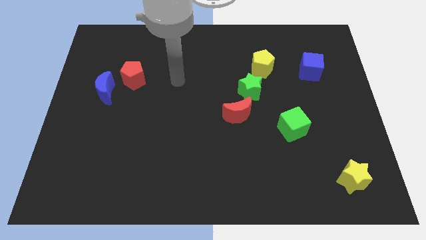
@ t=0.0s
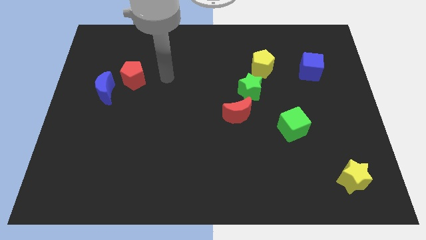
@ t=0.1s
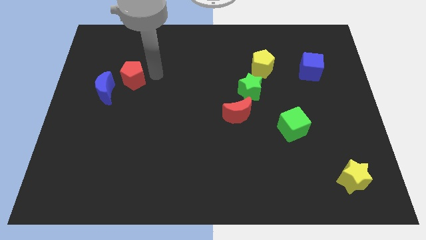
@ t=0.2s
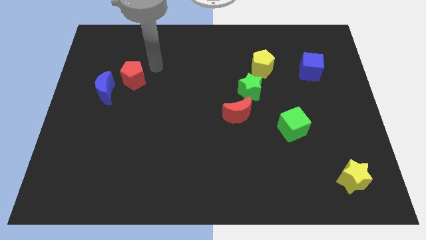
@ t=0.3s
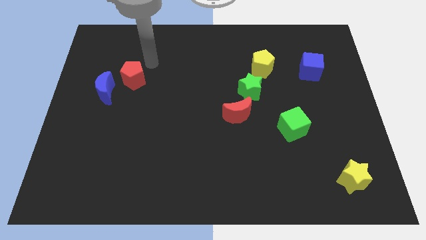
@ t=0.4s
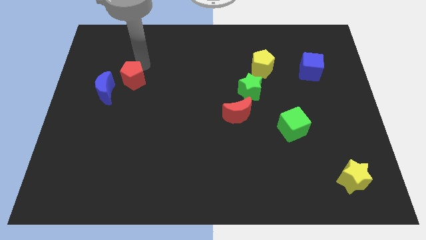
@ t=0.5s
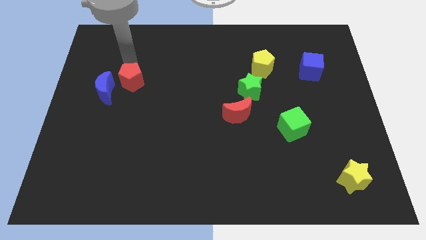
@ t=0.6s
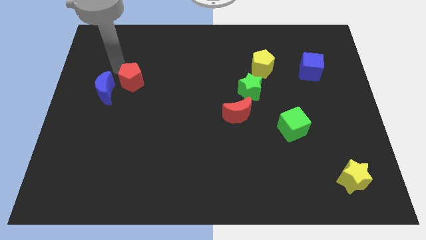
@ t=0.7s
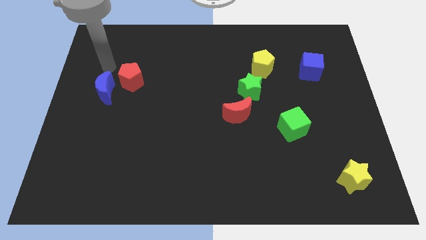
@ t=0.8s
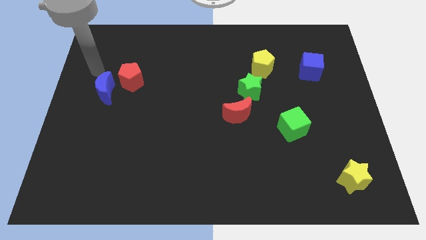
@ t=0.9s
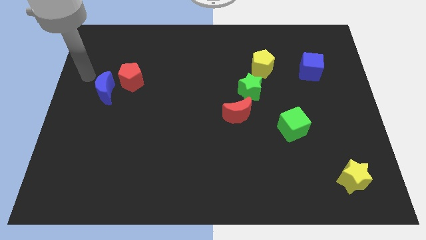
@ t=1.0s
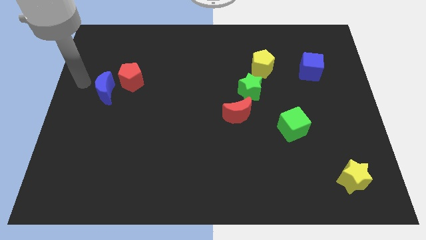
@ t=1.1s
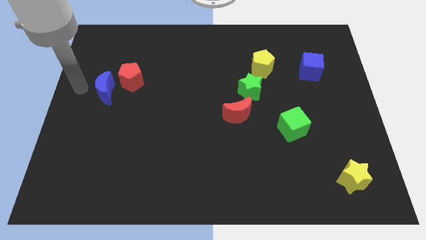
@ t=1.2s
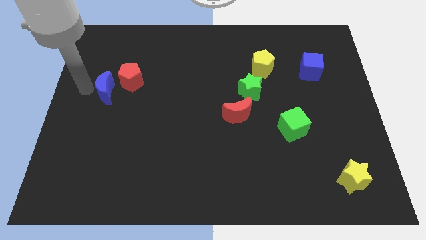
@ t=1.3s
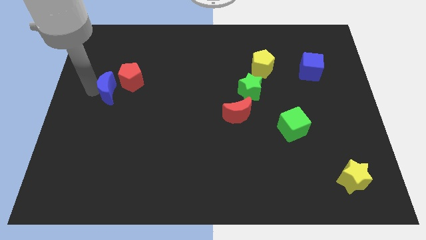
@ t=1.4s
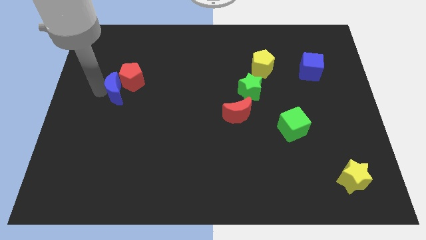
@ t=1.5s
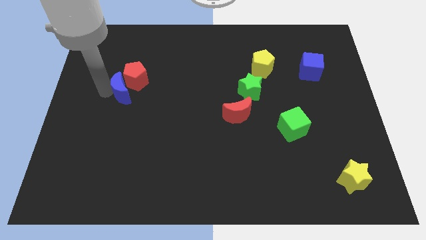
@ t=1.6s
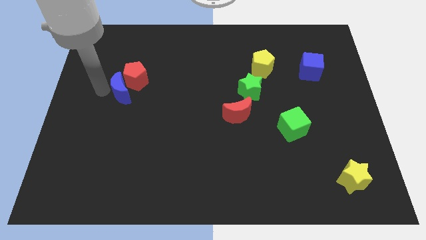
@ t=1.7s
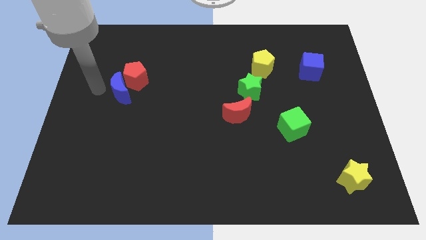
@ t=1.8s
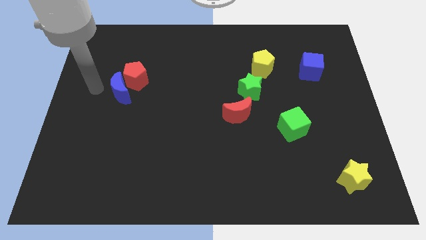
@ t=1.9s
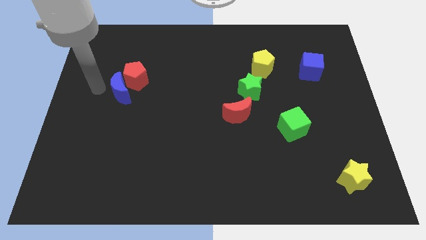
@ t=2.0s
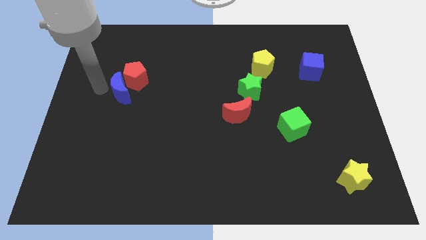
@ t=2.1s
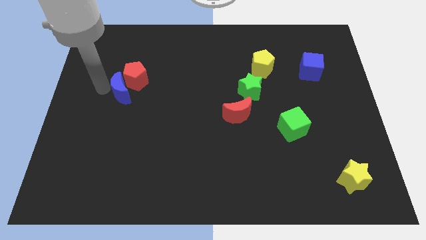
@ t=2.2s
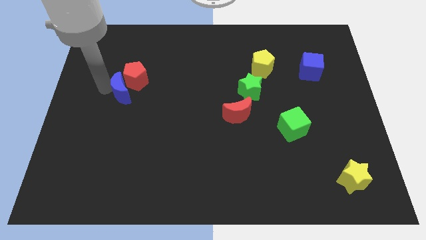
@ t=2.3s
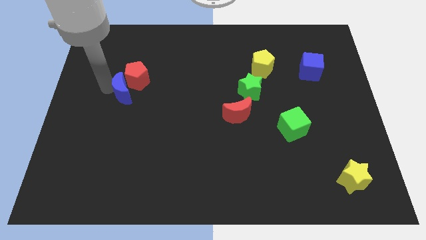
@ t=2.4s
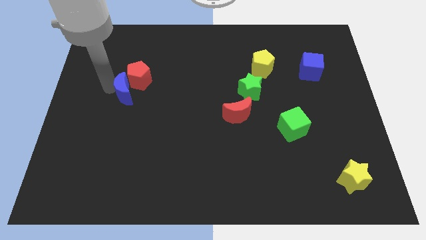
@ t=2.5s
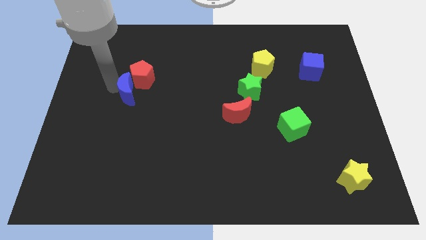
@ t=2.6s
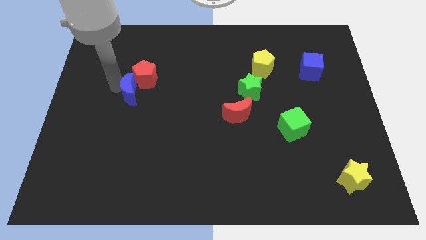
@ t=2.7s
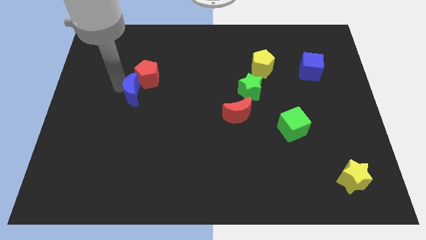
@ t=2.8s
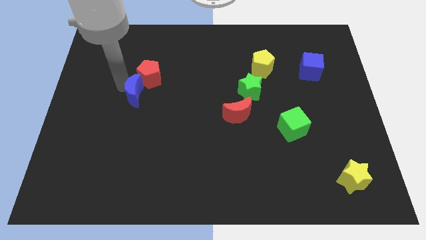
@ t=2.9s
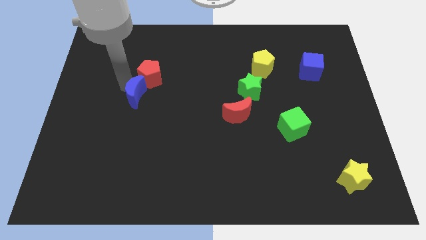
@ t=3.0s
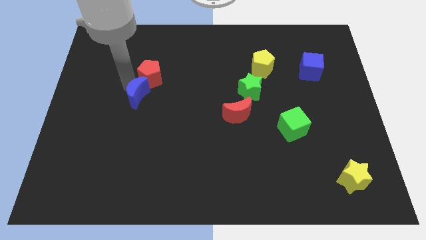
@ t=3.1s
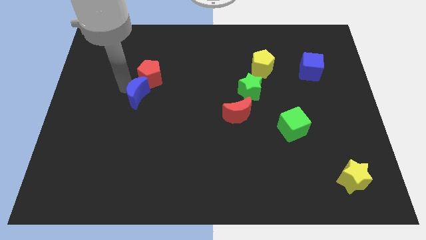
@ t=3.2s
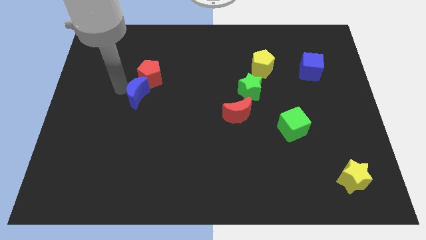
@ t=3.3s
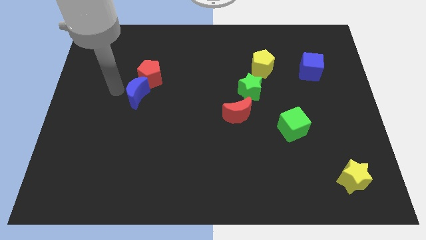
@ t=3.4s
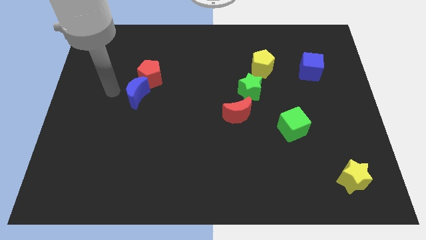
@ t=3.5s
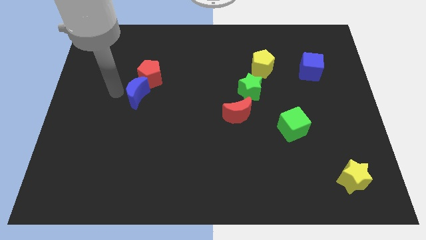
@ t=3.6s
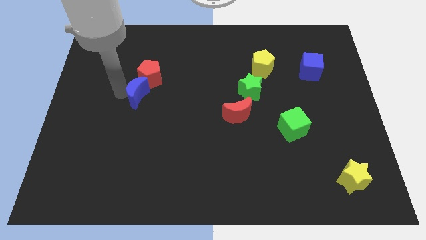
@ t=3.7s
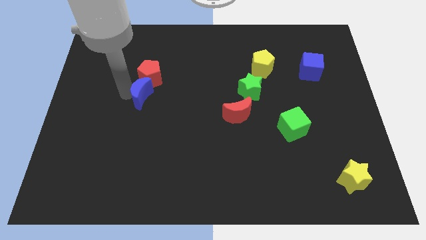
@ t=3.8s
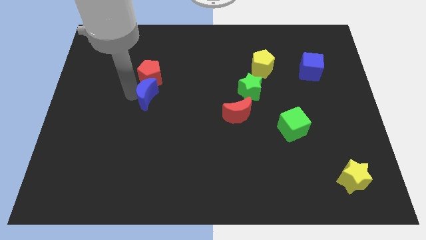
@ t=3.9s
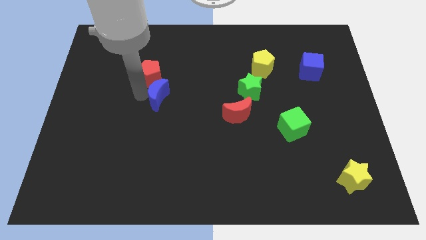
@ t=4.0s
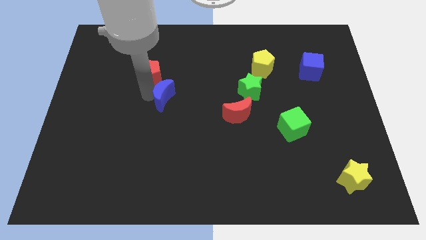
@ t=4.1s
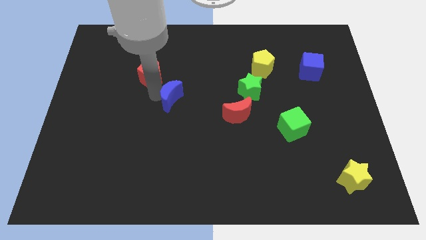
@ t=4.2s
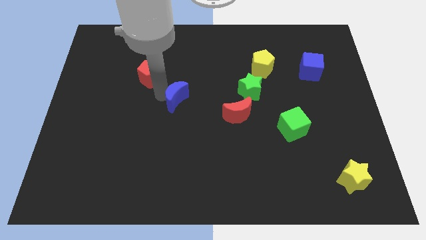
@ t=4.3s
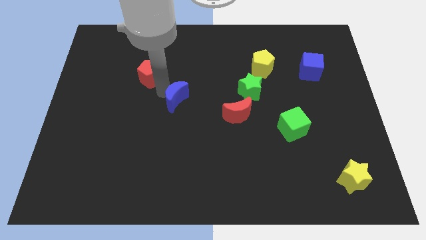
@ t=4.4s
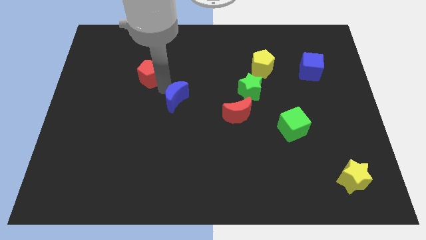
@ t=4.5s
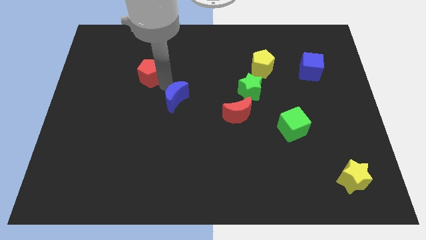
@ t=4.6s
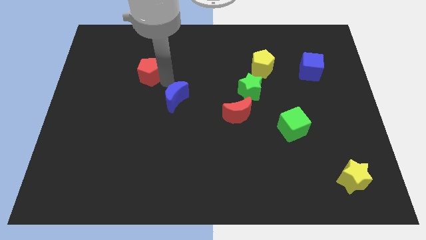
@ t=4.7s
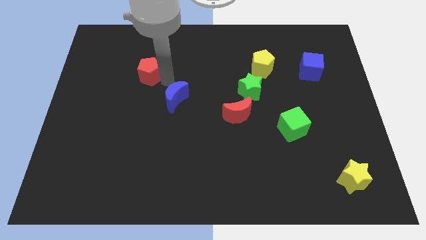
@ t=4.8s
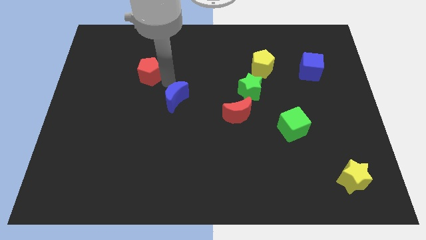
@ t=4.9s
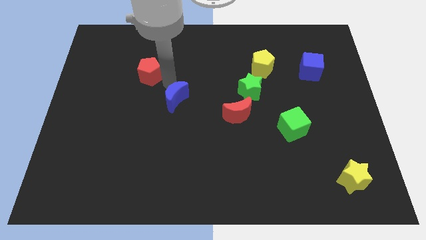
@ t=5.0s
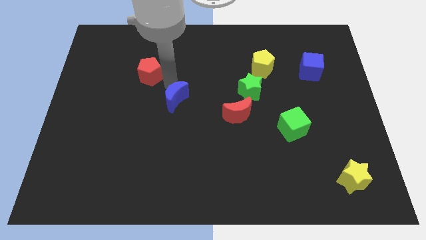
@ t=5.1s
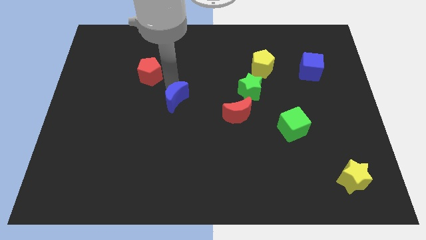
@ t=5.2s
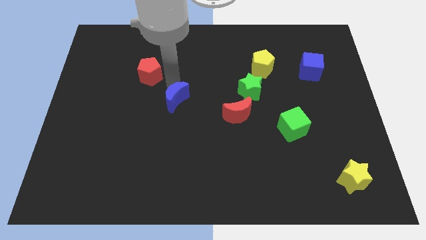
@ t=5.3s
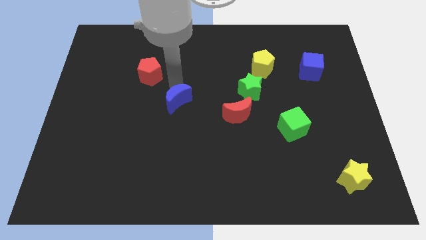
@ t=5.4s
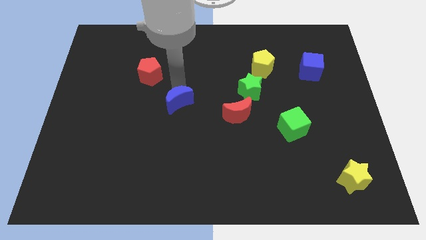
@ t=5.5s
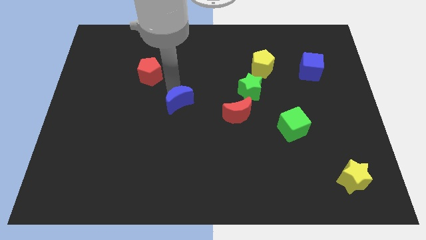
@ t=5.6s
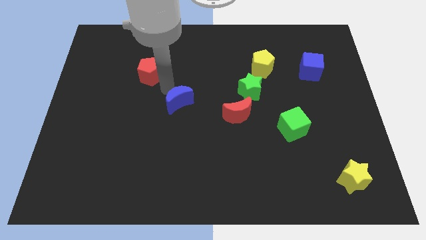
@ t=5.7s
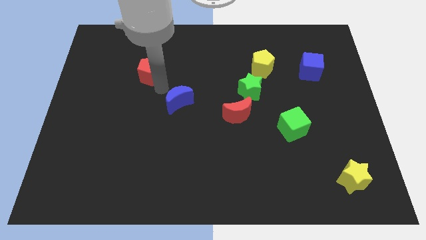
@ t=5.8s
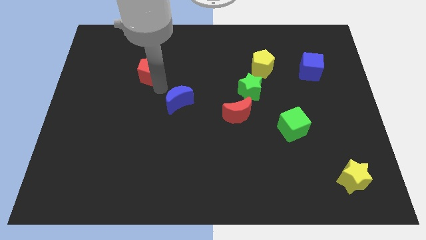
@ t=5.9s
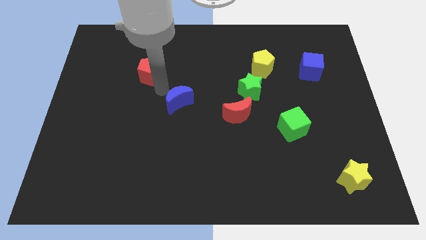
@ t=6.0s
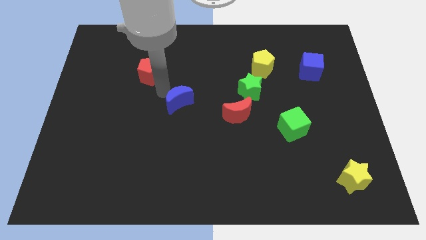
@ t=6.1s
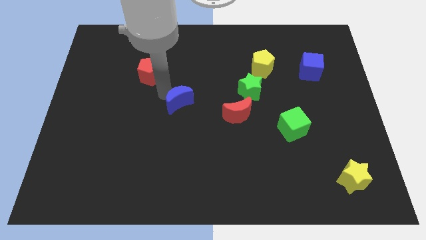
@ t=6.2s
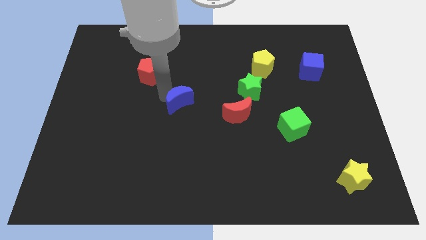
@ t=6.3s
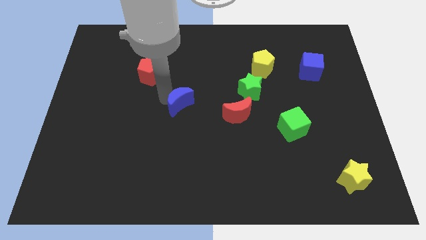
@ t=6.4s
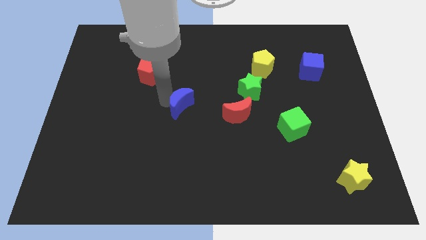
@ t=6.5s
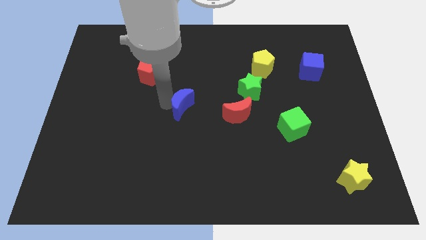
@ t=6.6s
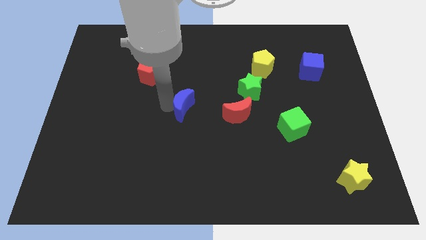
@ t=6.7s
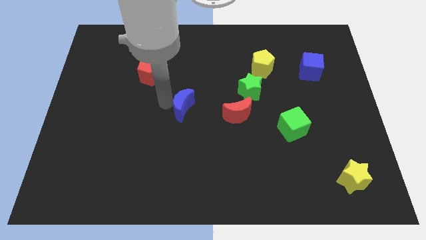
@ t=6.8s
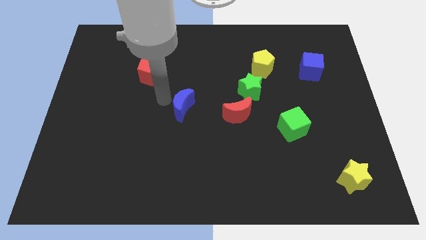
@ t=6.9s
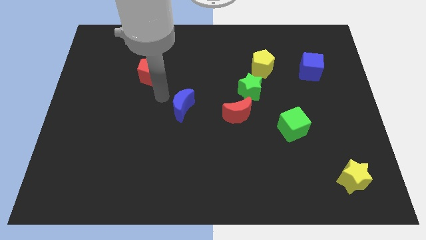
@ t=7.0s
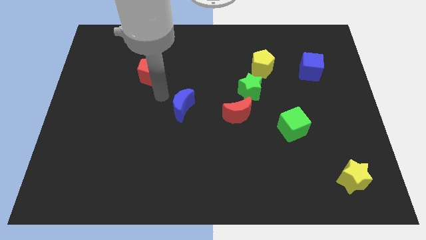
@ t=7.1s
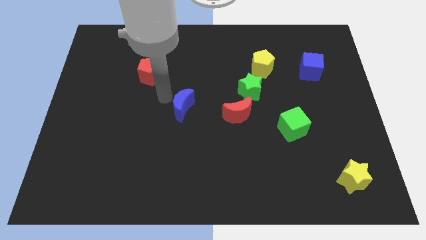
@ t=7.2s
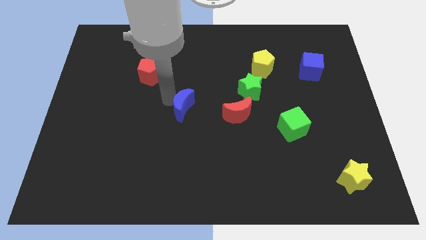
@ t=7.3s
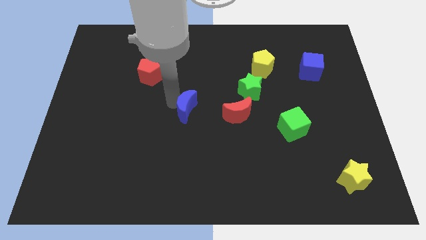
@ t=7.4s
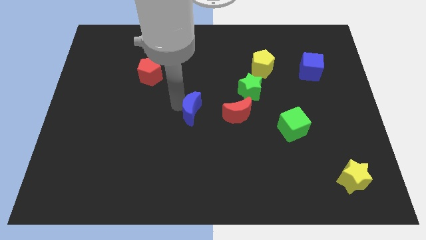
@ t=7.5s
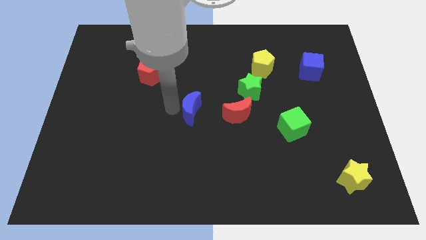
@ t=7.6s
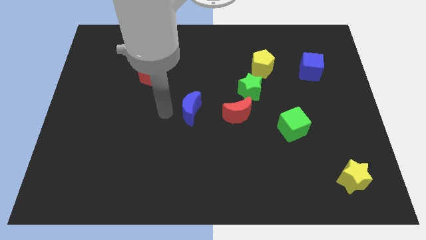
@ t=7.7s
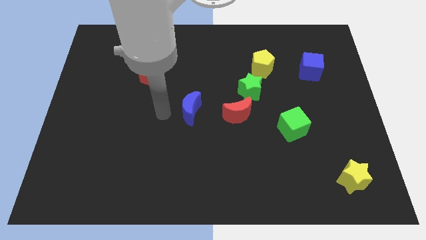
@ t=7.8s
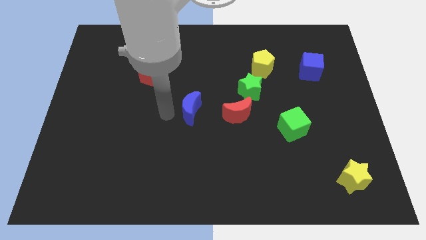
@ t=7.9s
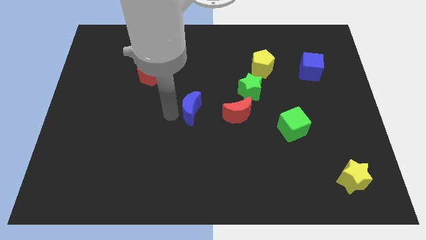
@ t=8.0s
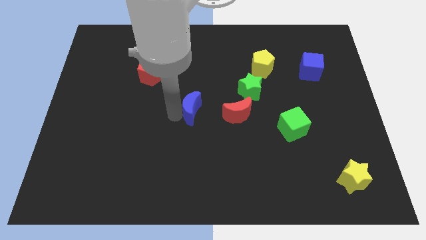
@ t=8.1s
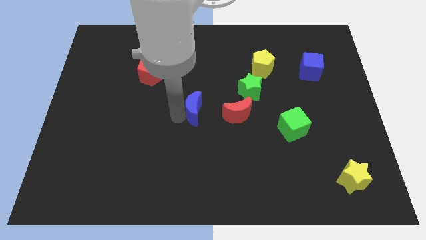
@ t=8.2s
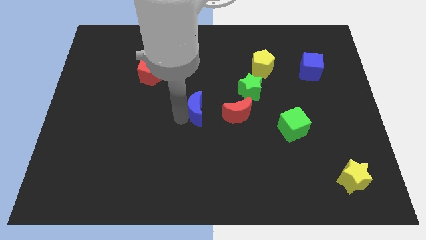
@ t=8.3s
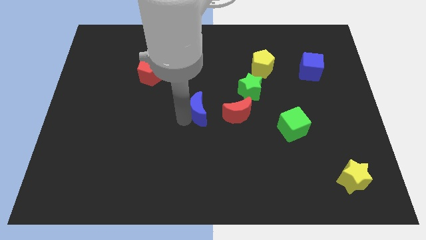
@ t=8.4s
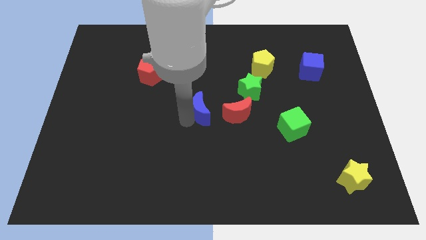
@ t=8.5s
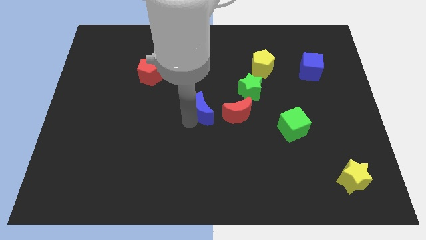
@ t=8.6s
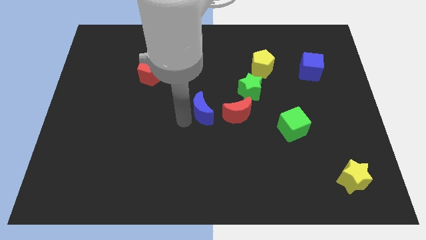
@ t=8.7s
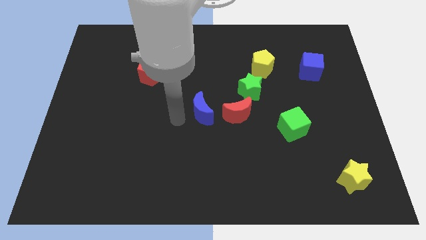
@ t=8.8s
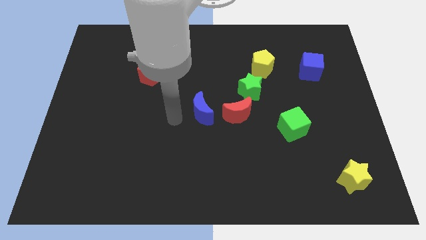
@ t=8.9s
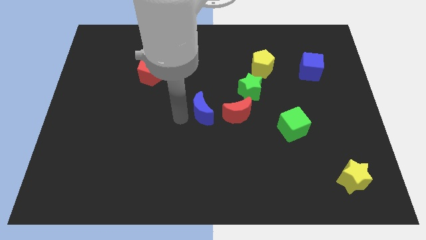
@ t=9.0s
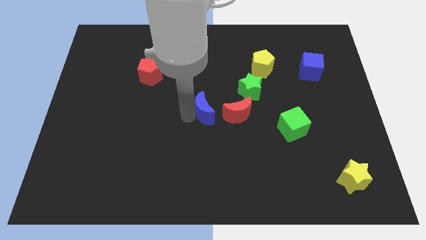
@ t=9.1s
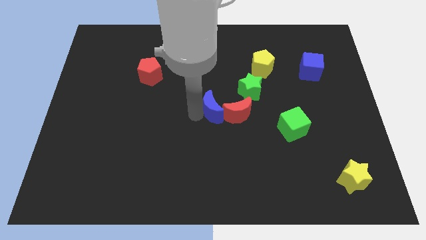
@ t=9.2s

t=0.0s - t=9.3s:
move the blue moon to the bottom left side of the green star
